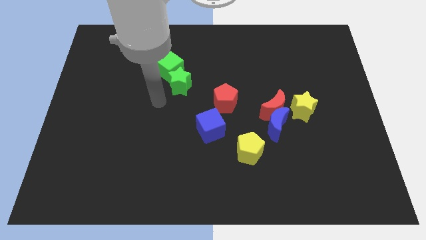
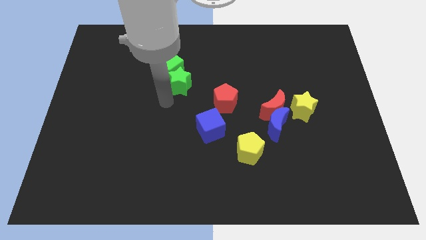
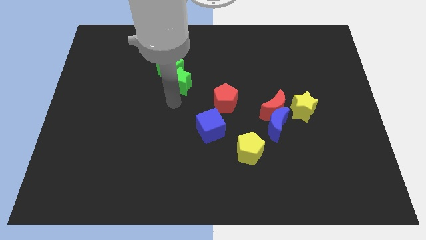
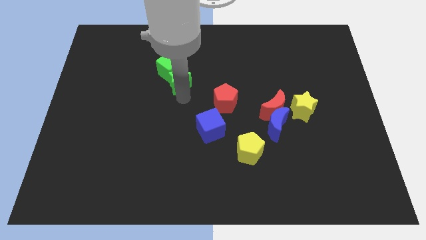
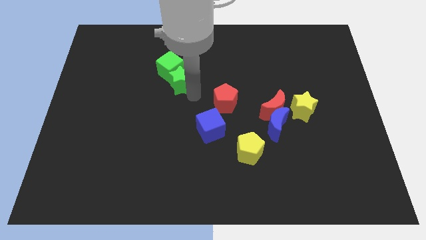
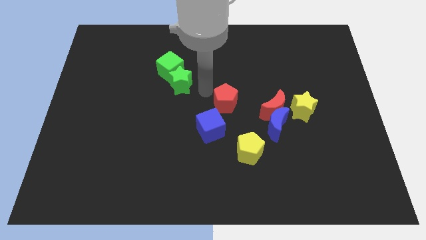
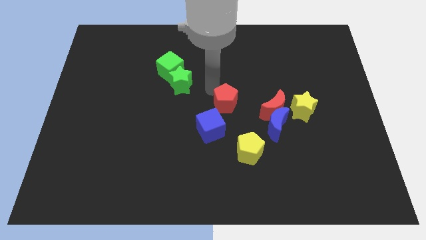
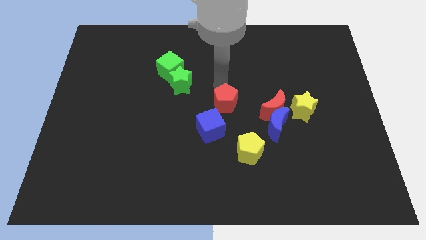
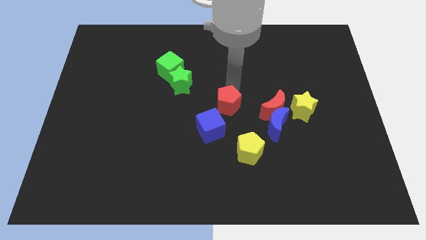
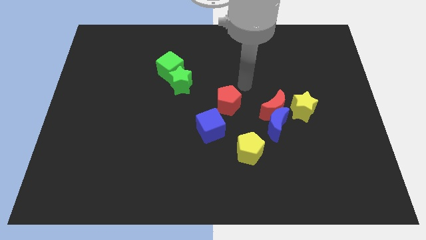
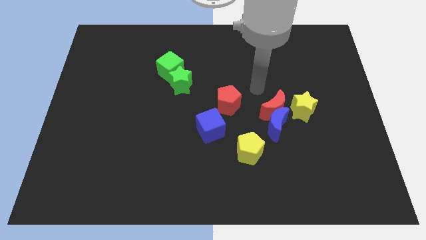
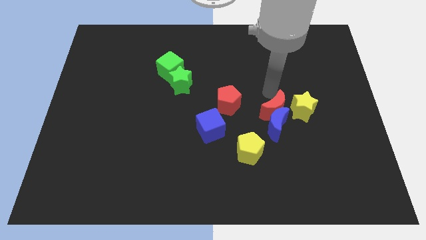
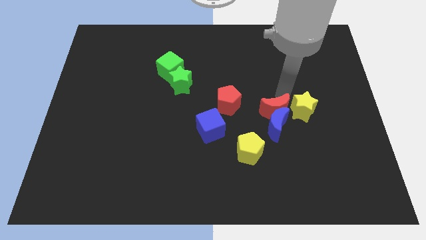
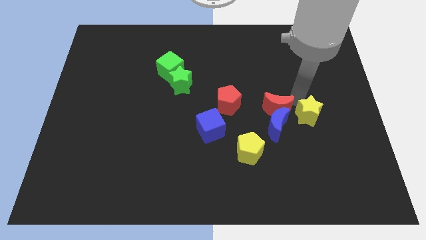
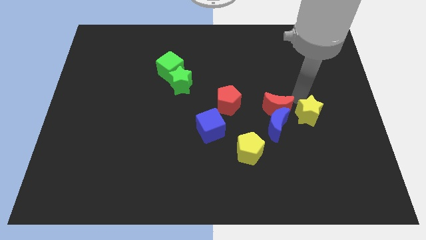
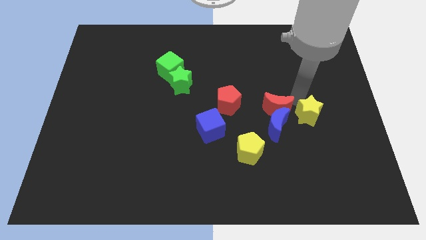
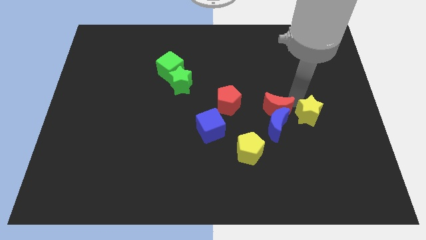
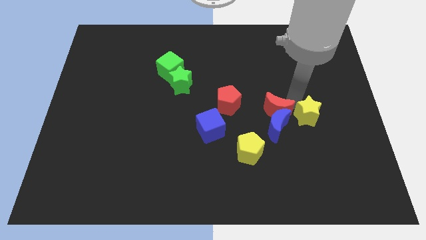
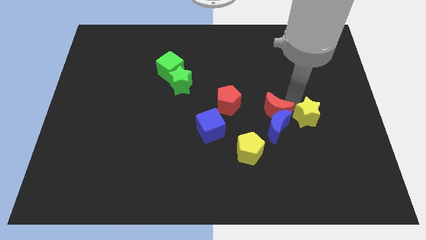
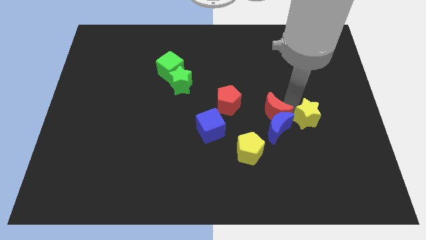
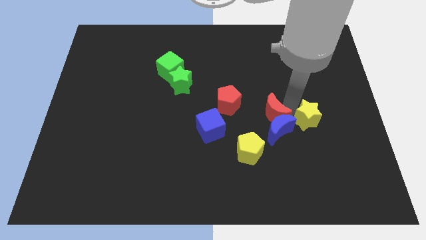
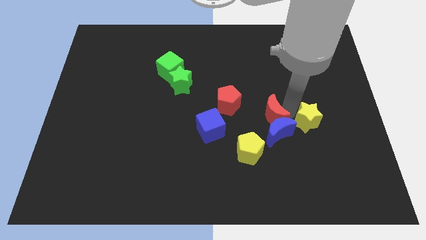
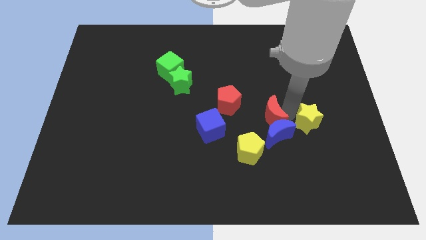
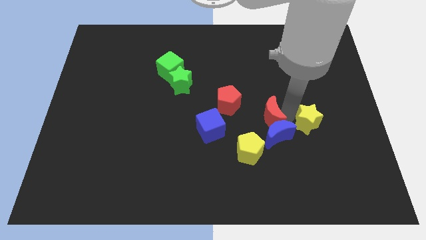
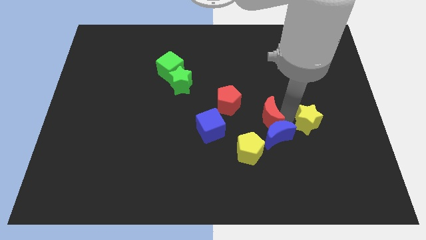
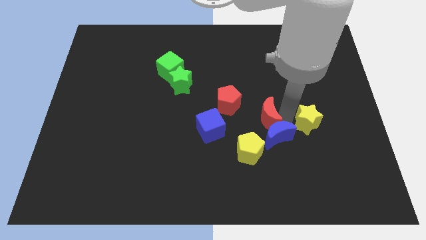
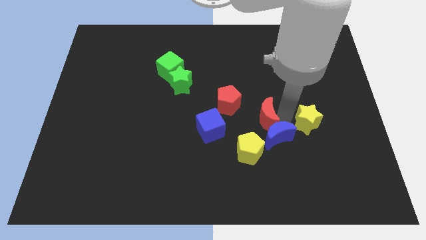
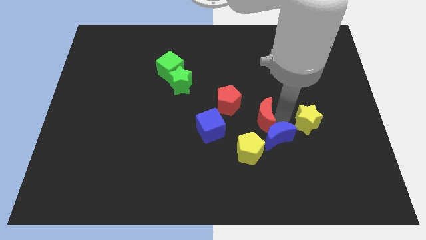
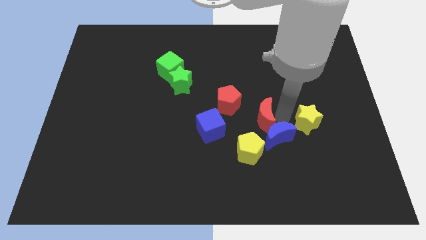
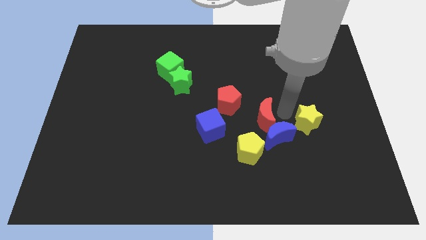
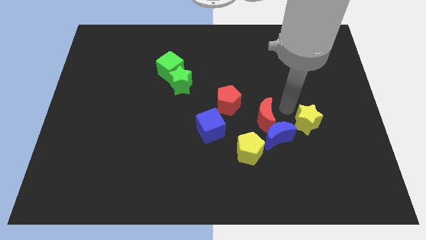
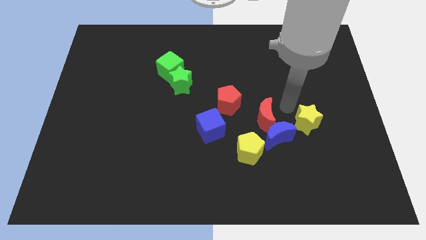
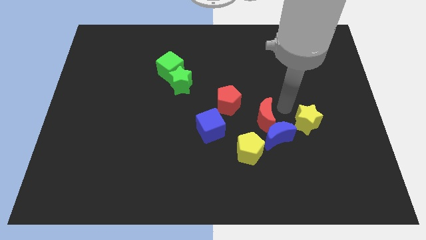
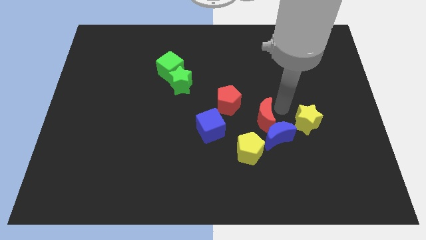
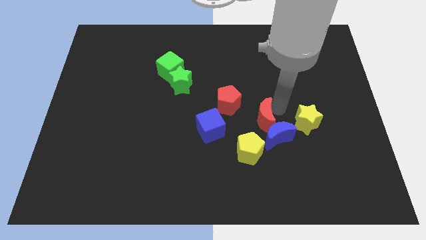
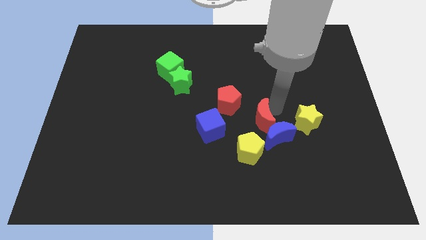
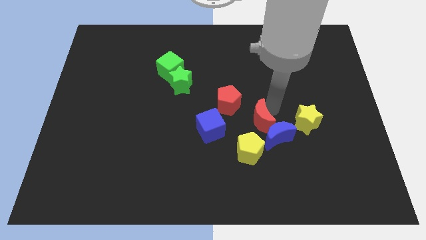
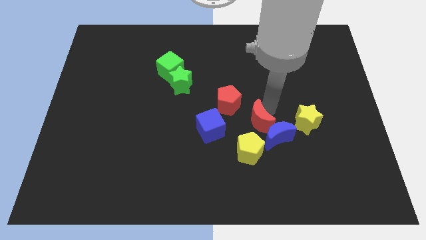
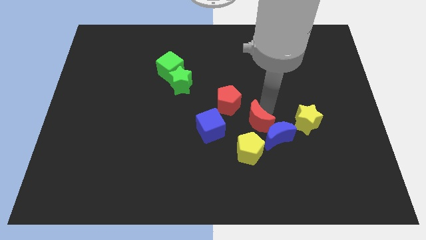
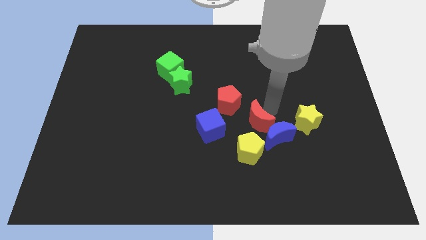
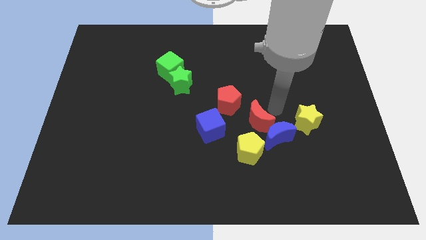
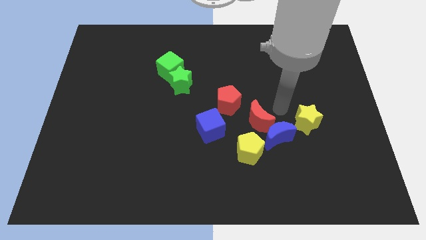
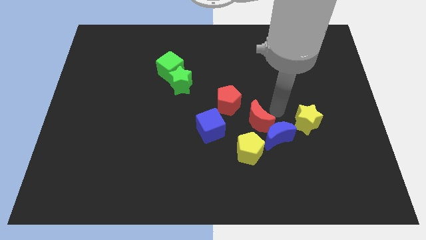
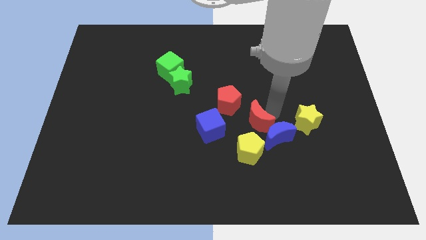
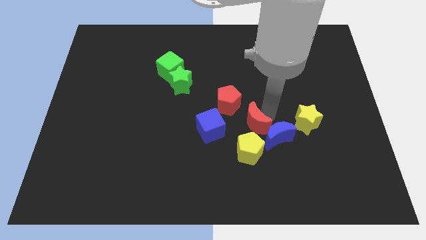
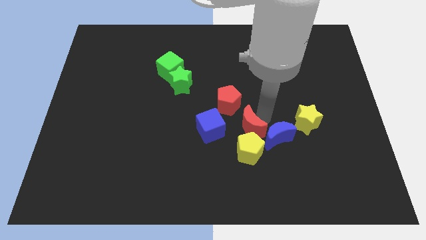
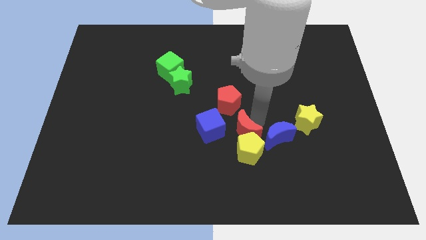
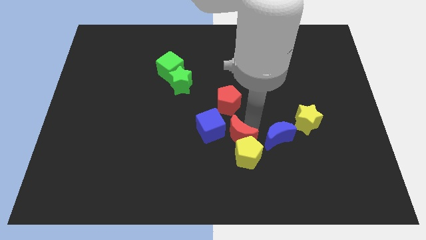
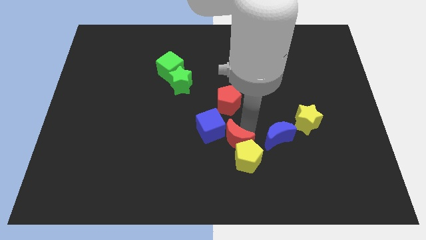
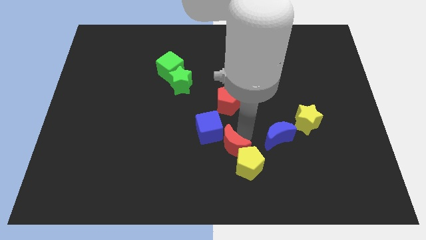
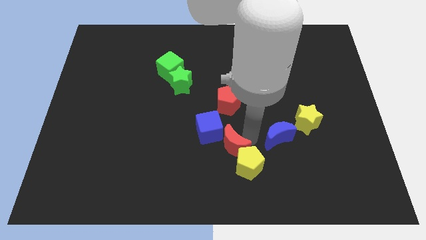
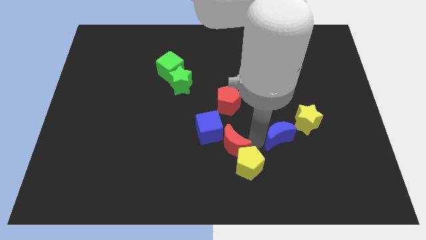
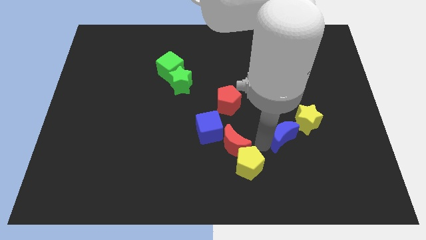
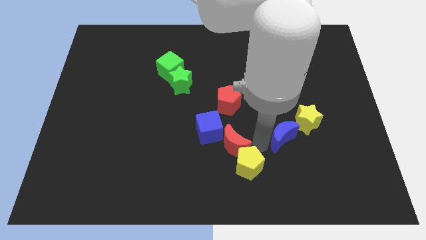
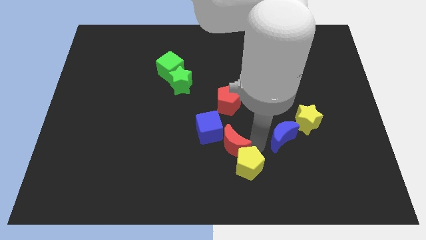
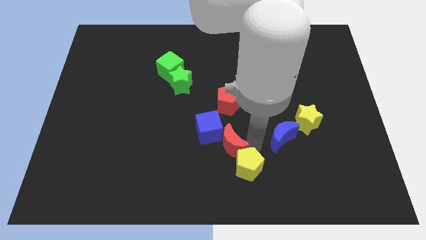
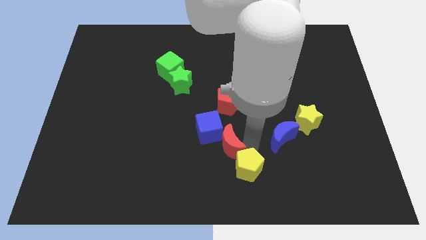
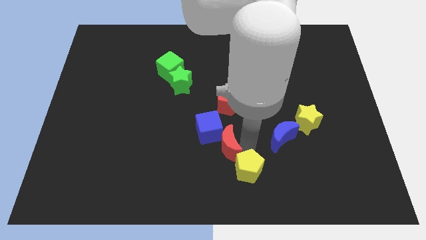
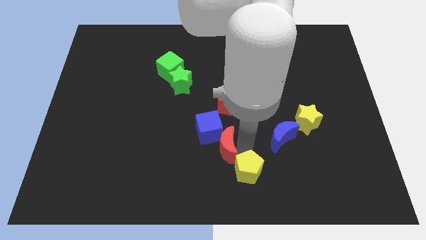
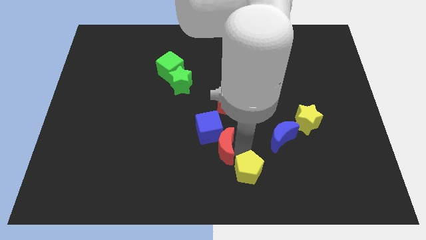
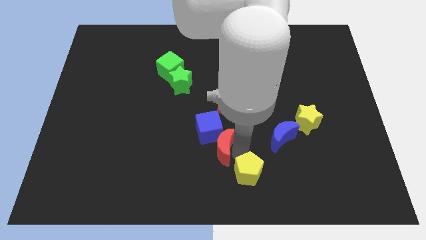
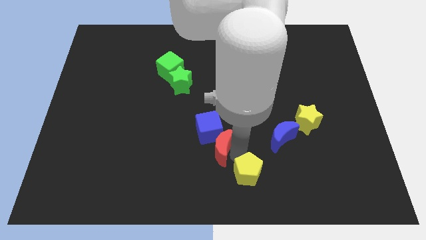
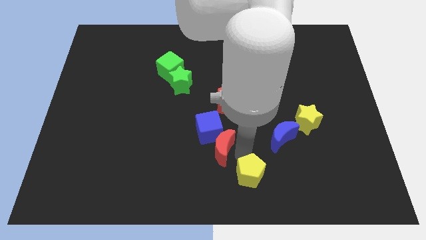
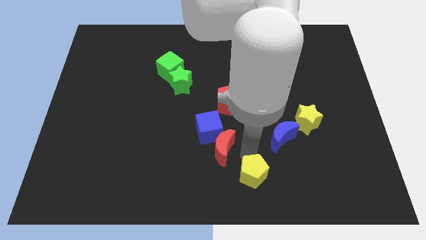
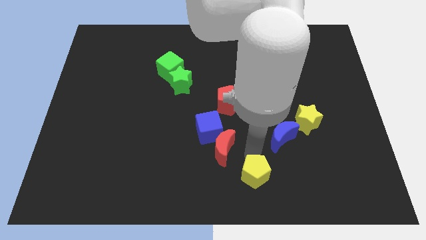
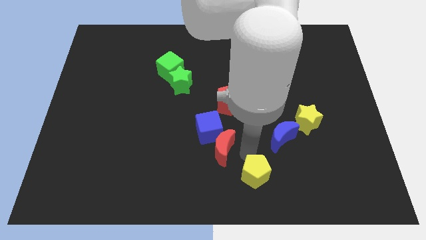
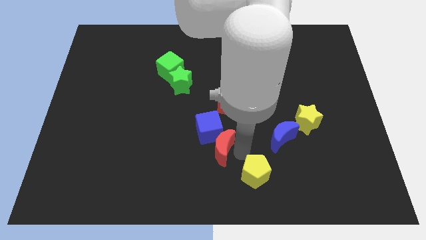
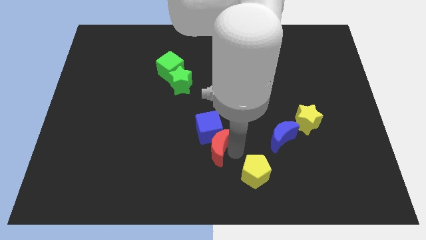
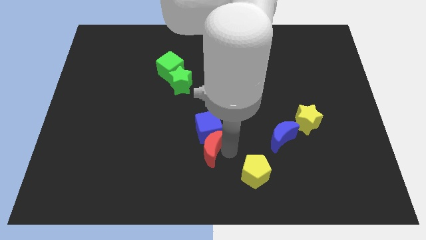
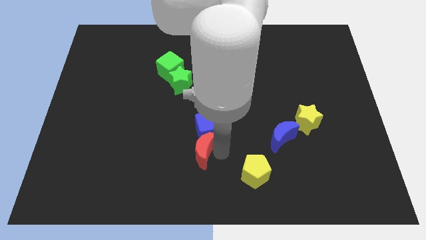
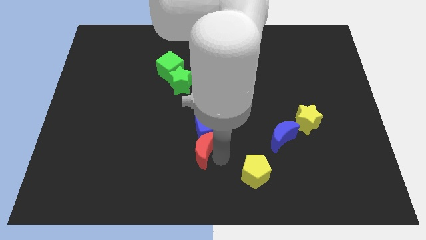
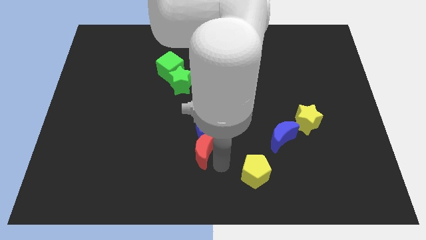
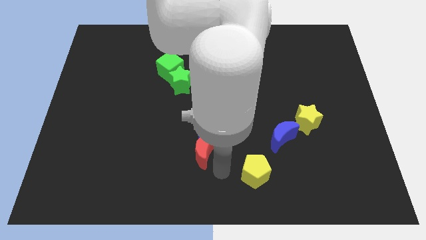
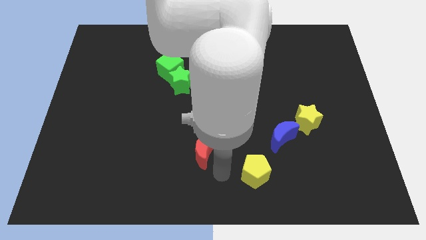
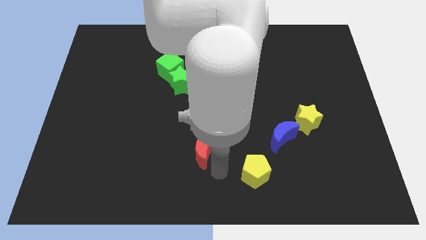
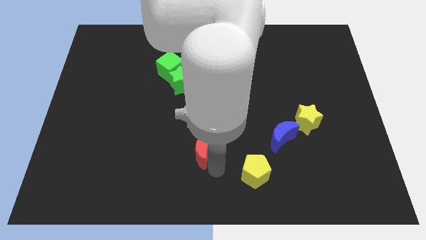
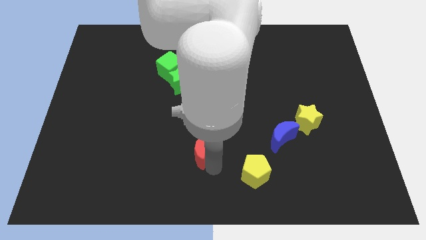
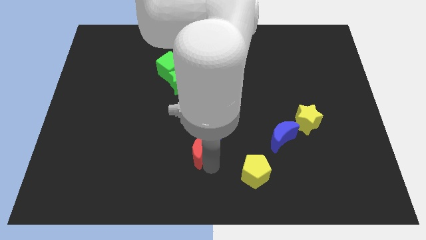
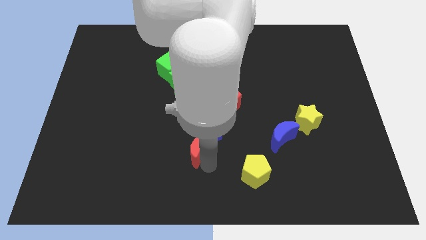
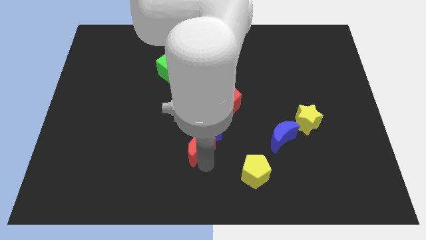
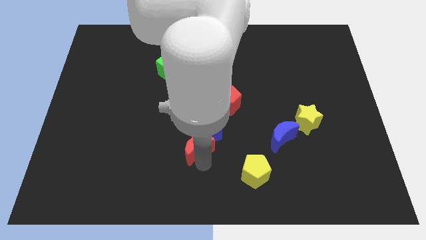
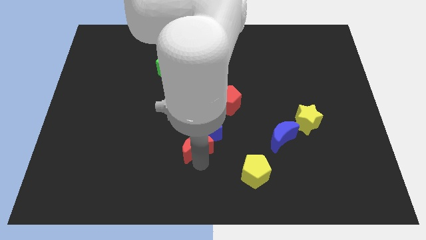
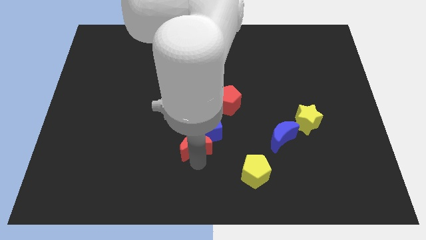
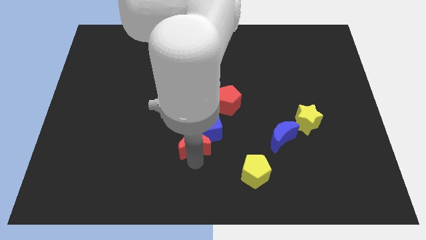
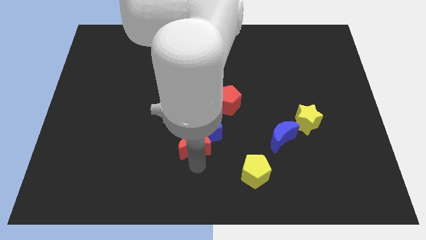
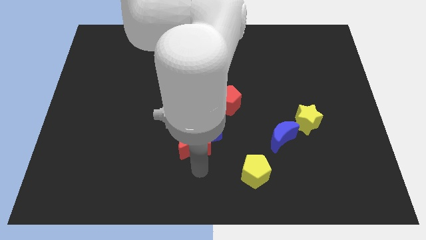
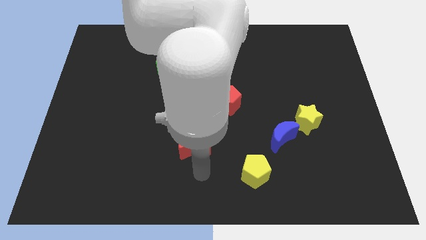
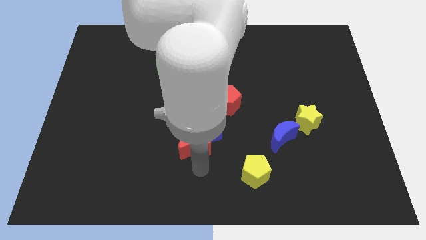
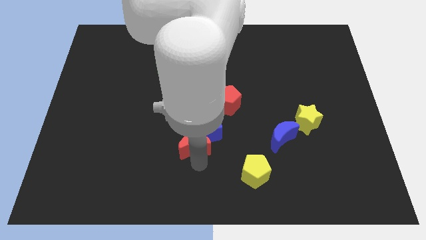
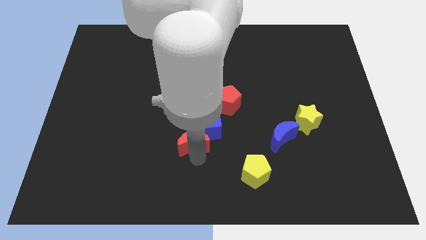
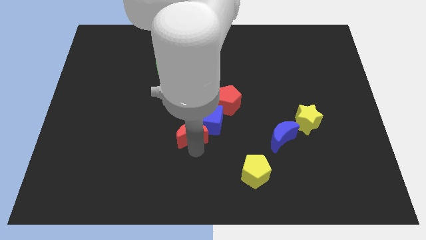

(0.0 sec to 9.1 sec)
push the red moon to the bottom of the green star
